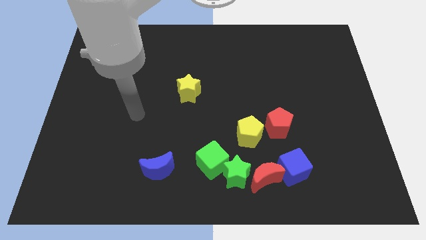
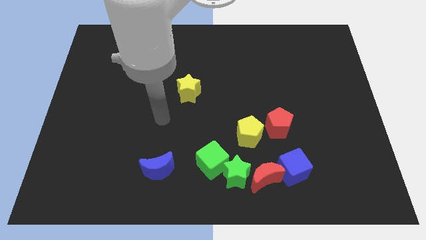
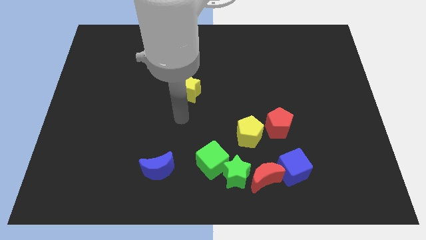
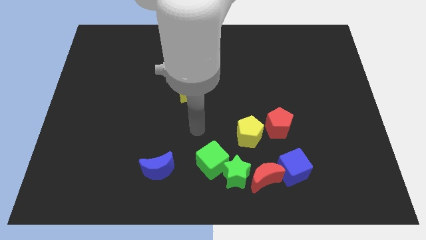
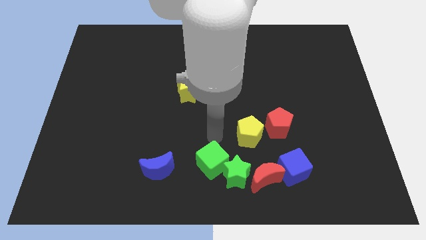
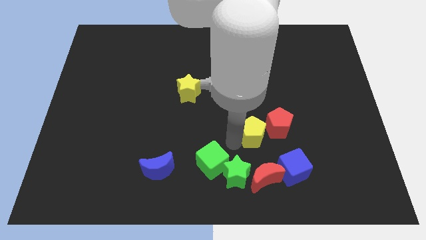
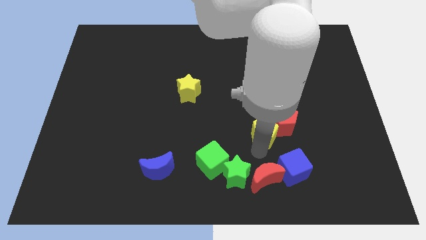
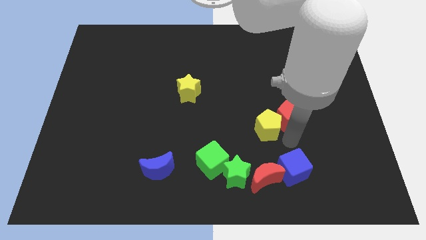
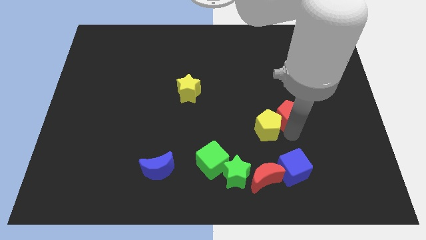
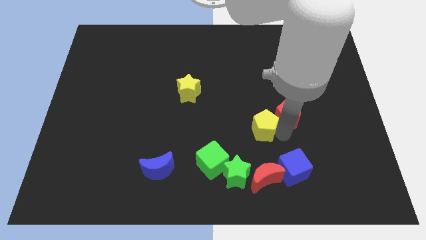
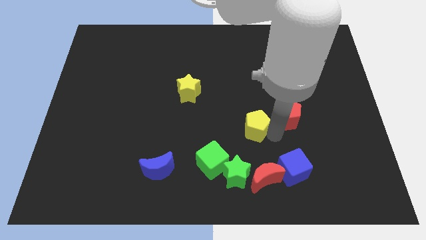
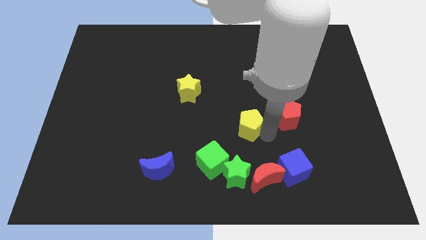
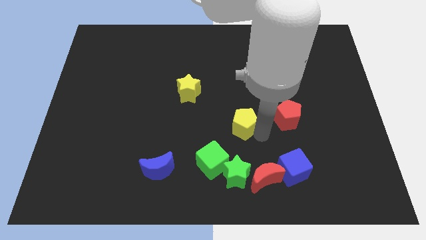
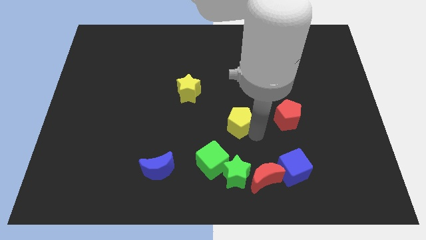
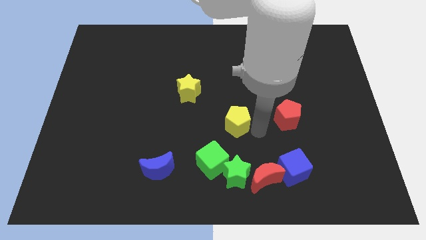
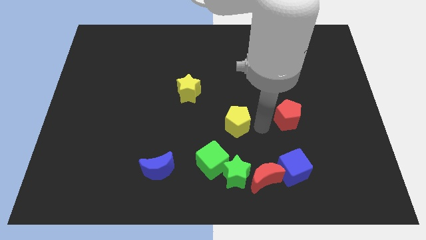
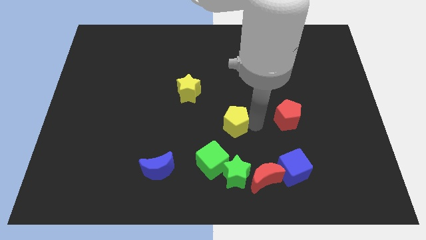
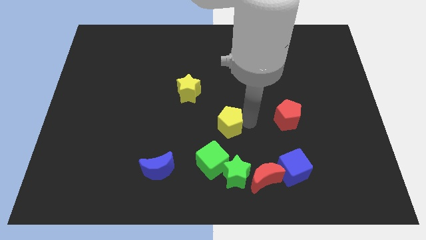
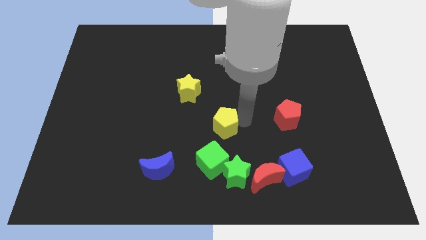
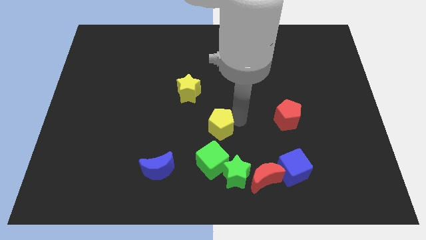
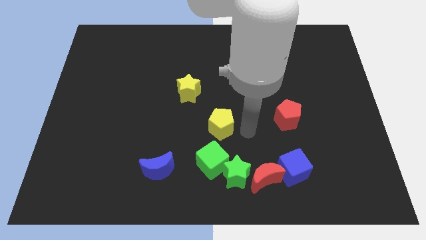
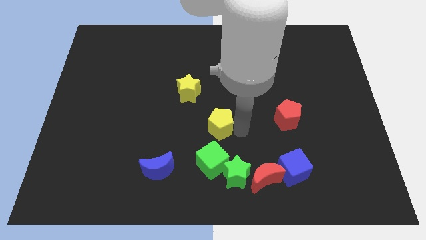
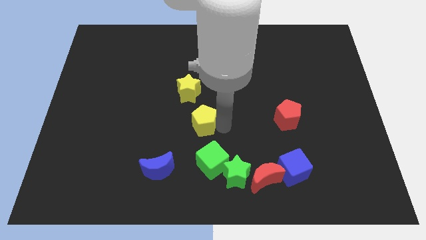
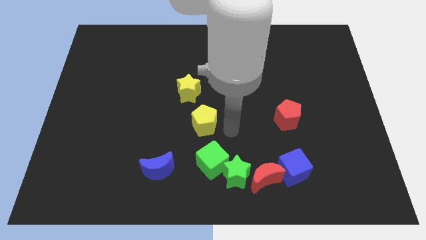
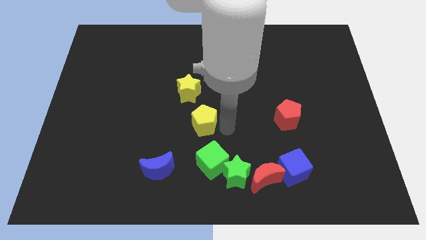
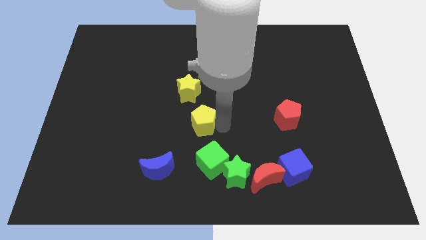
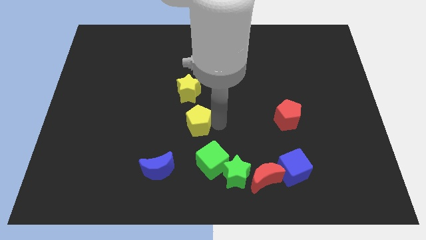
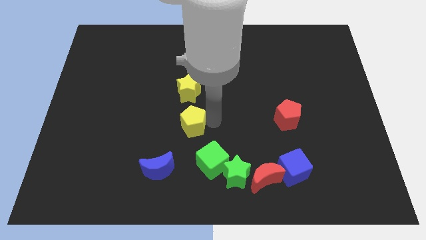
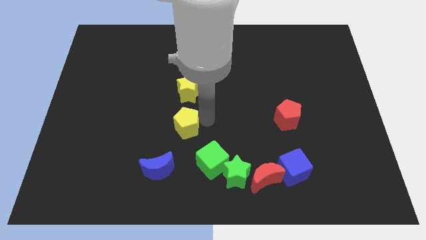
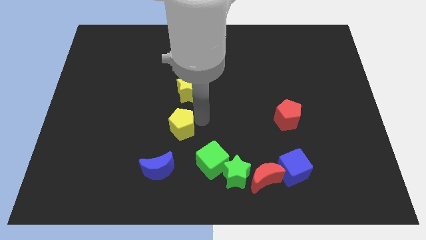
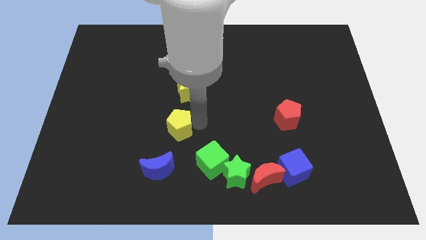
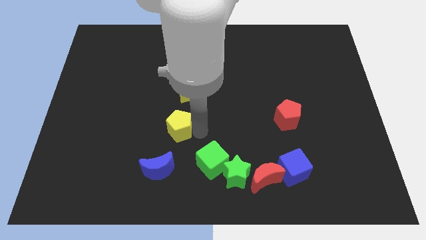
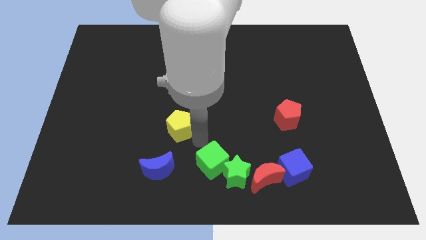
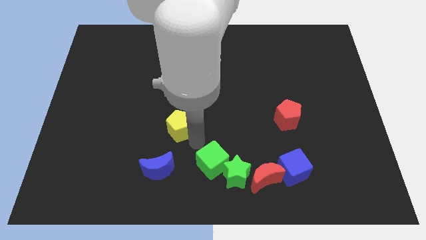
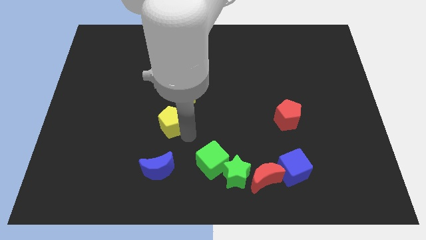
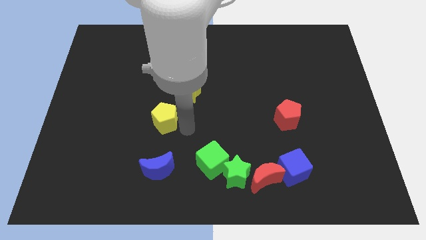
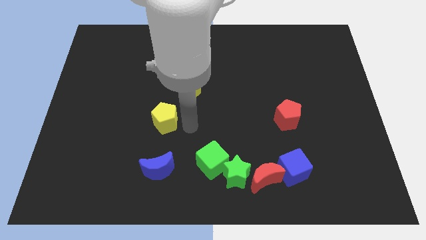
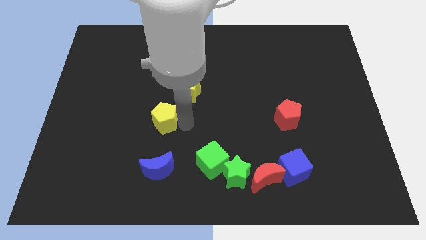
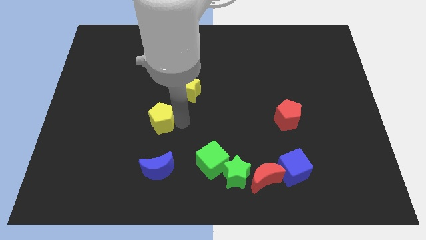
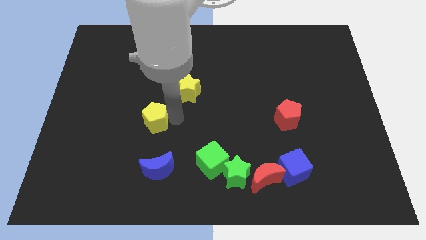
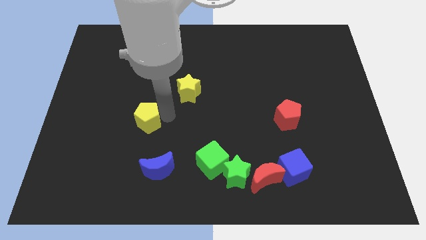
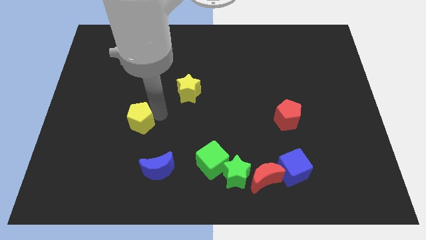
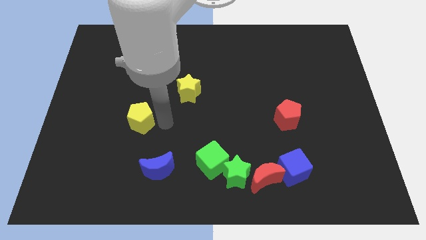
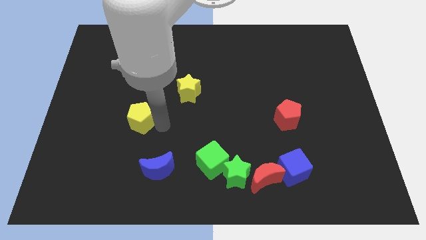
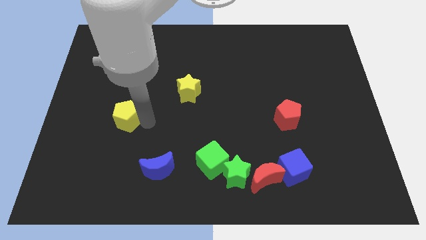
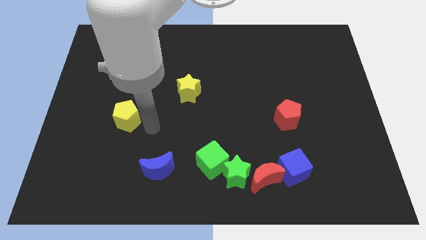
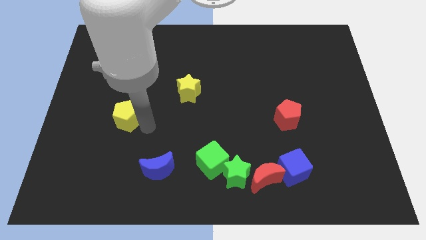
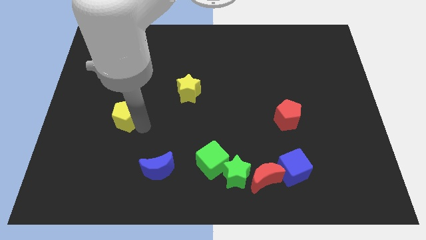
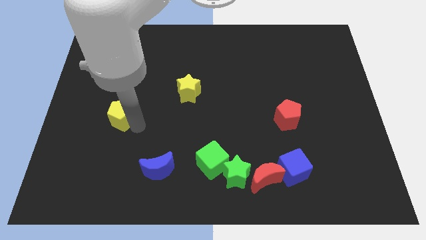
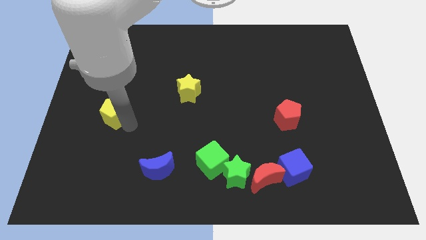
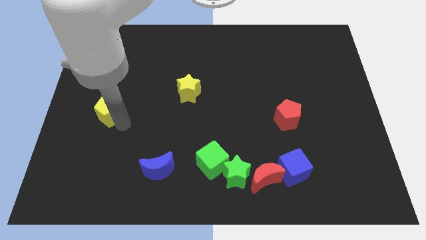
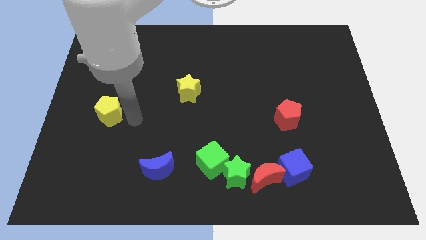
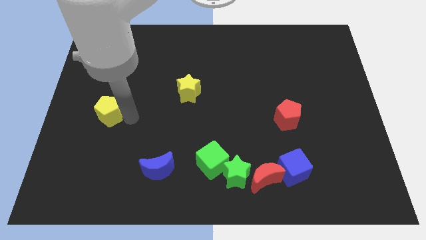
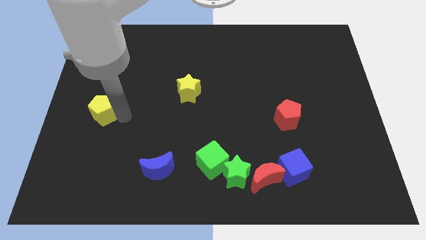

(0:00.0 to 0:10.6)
move the yellow pentagon to the center left
